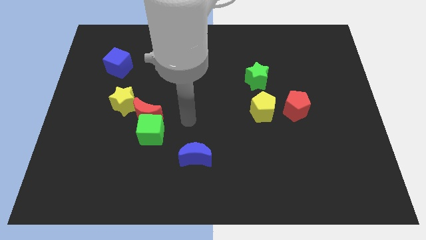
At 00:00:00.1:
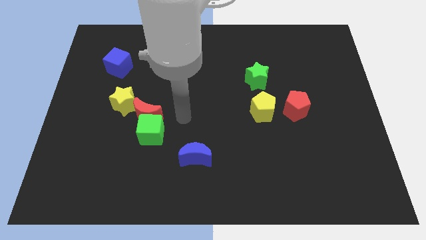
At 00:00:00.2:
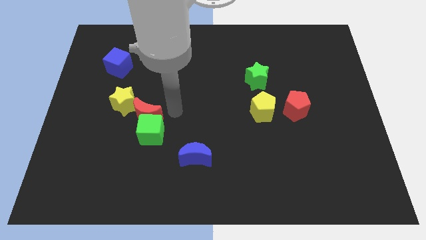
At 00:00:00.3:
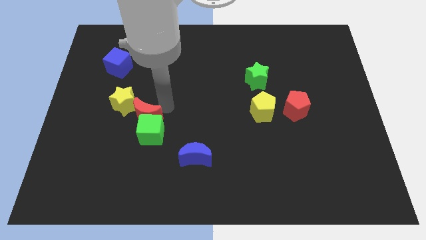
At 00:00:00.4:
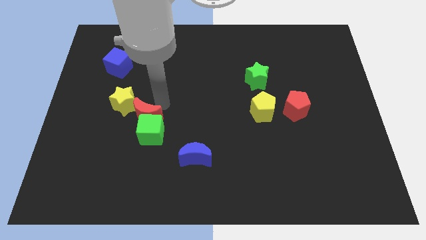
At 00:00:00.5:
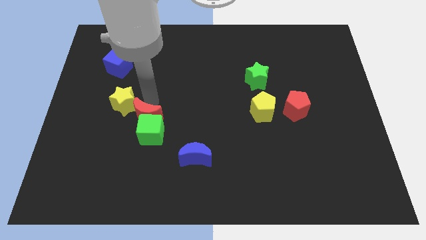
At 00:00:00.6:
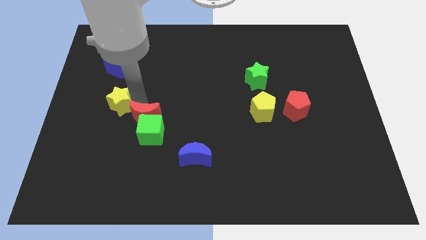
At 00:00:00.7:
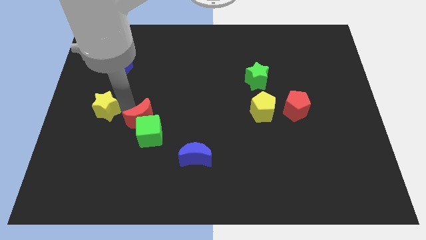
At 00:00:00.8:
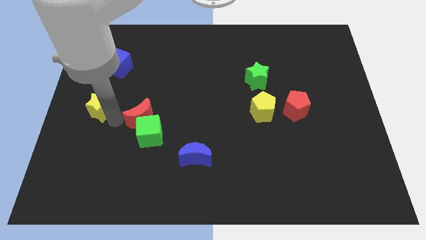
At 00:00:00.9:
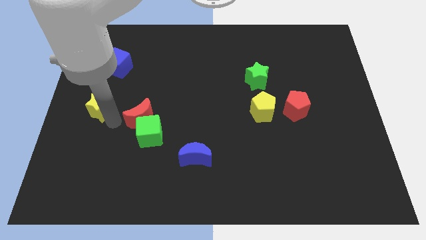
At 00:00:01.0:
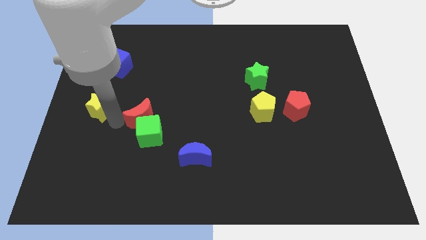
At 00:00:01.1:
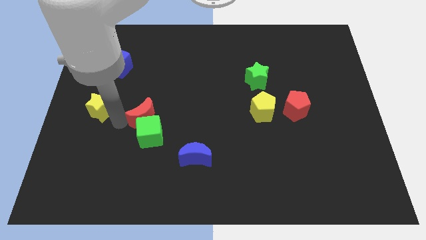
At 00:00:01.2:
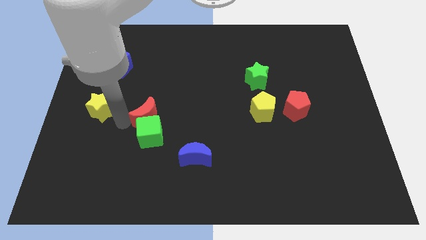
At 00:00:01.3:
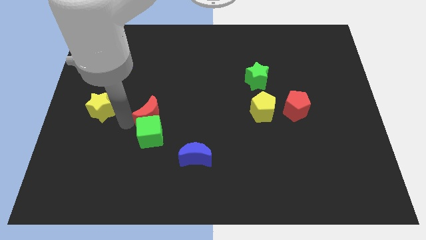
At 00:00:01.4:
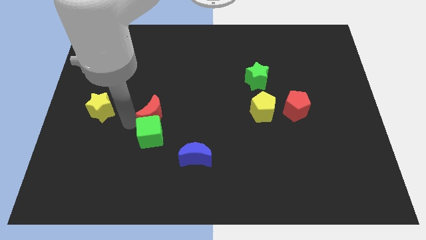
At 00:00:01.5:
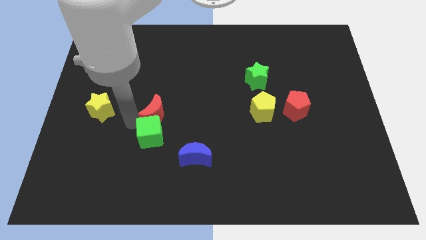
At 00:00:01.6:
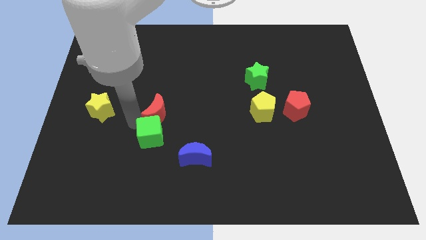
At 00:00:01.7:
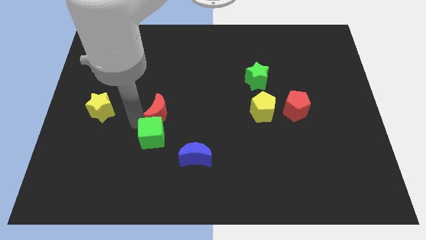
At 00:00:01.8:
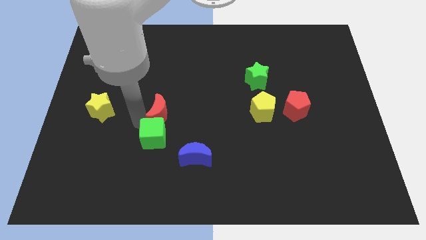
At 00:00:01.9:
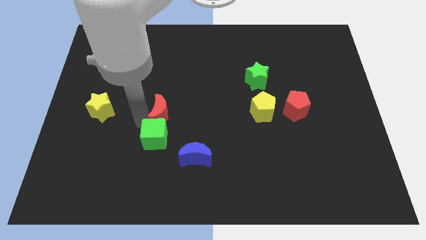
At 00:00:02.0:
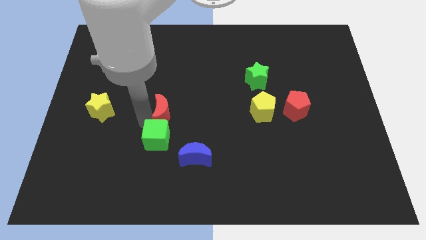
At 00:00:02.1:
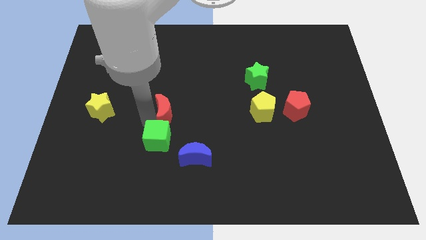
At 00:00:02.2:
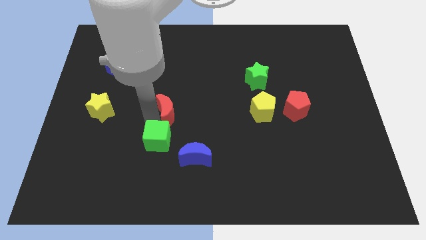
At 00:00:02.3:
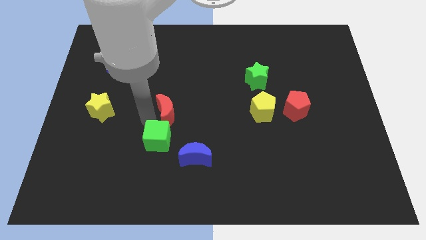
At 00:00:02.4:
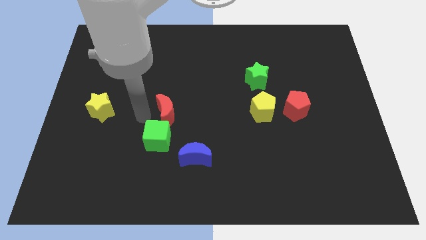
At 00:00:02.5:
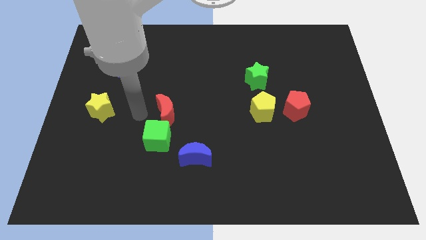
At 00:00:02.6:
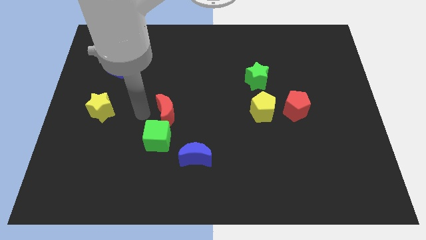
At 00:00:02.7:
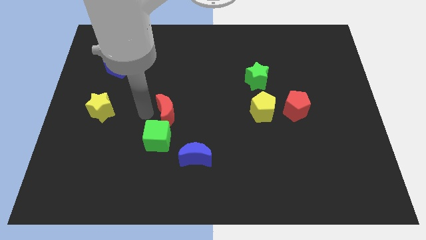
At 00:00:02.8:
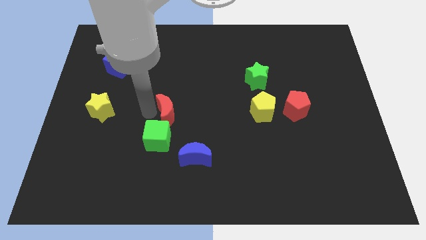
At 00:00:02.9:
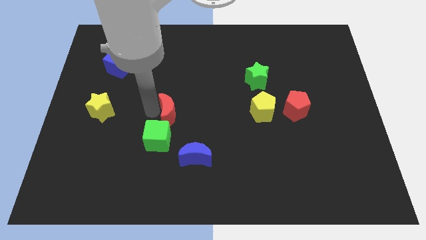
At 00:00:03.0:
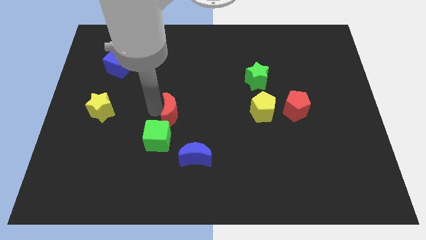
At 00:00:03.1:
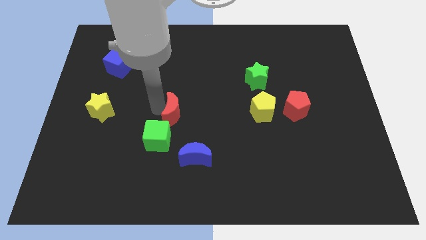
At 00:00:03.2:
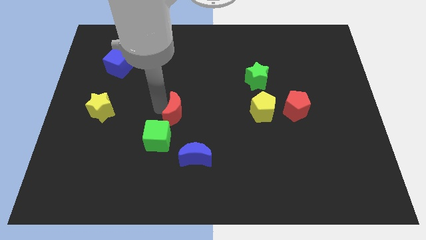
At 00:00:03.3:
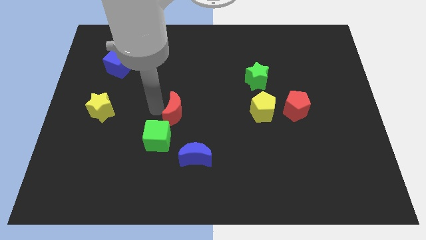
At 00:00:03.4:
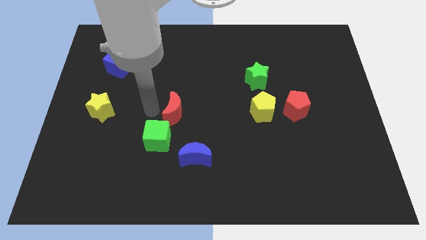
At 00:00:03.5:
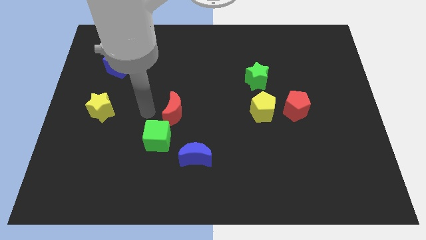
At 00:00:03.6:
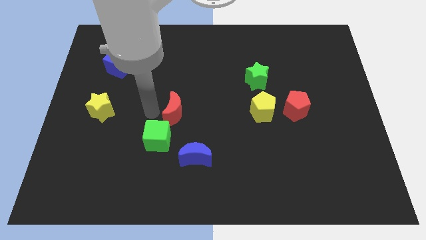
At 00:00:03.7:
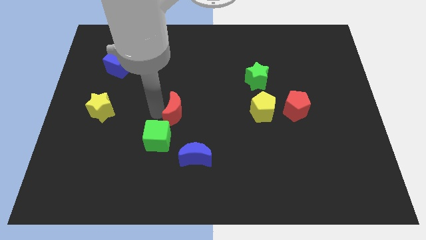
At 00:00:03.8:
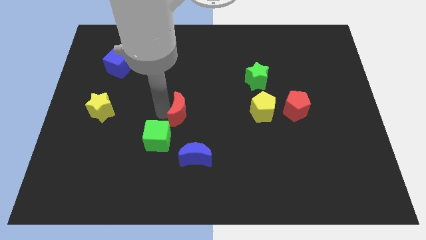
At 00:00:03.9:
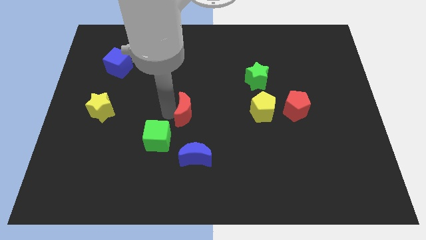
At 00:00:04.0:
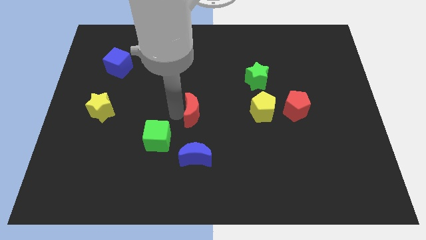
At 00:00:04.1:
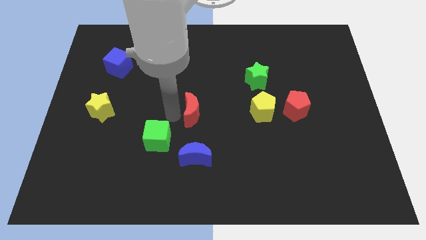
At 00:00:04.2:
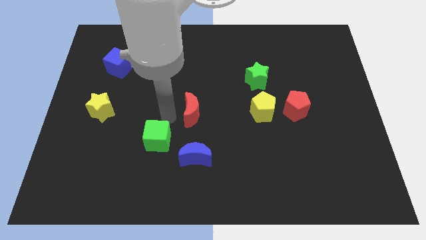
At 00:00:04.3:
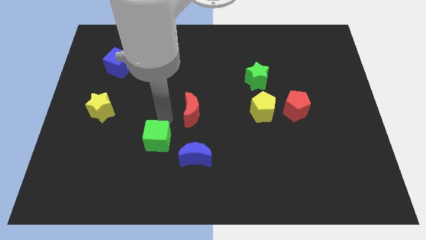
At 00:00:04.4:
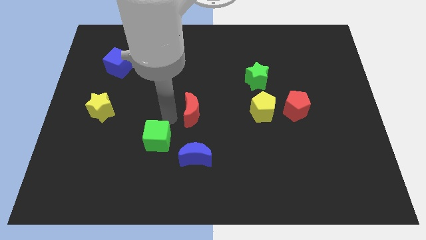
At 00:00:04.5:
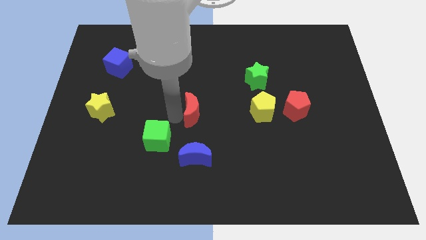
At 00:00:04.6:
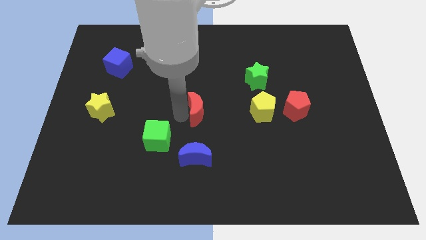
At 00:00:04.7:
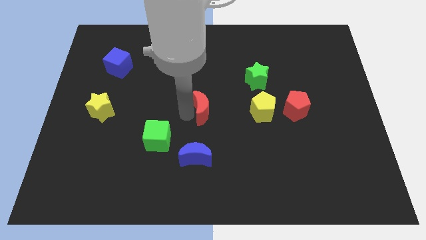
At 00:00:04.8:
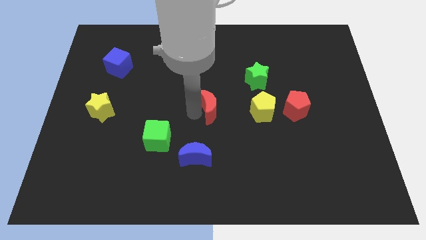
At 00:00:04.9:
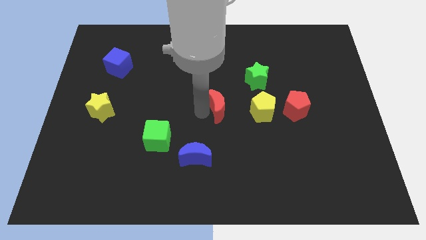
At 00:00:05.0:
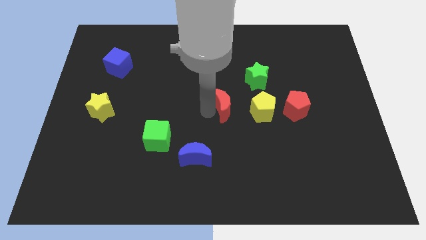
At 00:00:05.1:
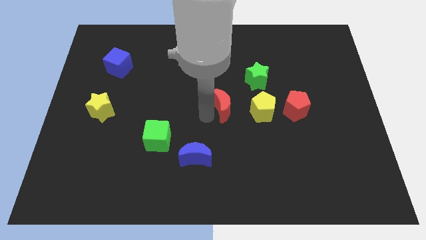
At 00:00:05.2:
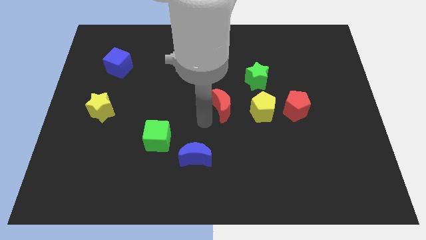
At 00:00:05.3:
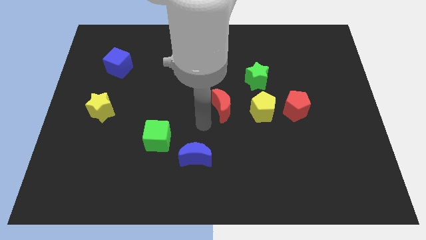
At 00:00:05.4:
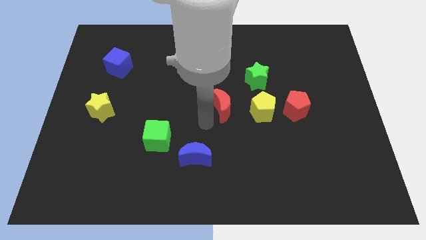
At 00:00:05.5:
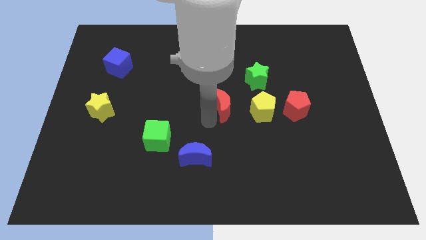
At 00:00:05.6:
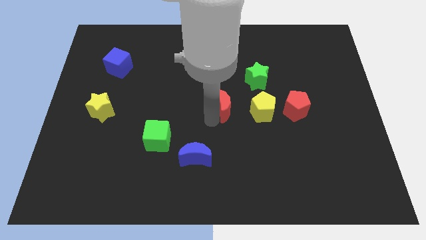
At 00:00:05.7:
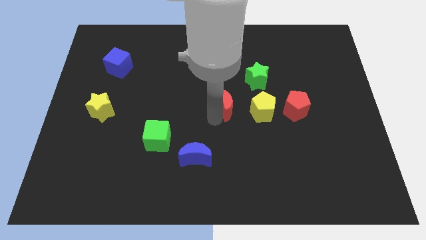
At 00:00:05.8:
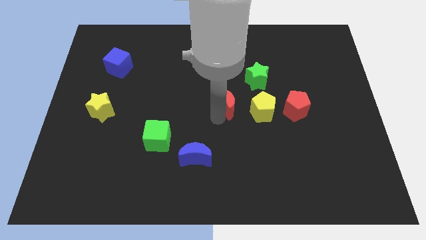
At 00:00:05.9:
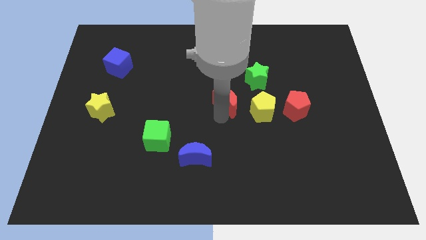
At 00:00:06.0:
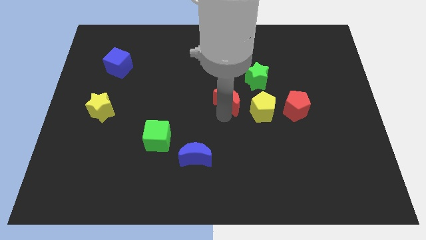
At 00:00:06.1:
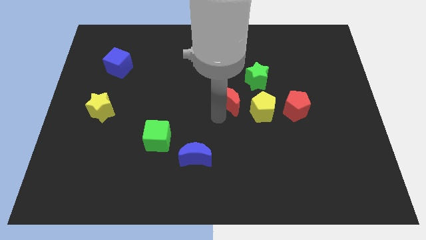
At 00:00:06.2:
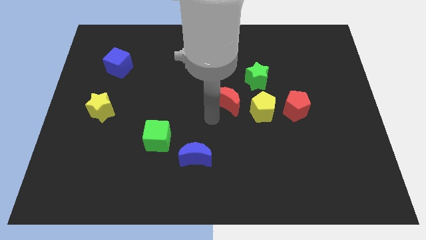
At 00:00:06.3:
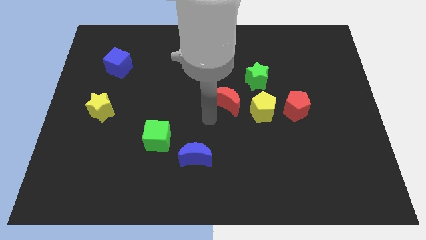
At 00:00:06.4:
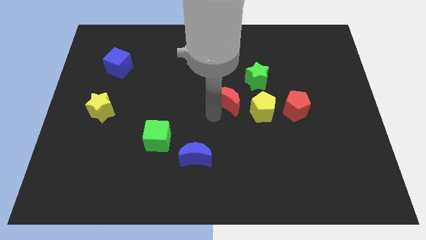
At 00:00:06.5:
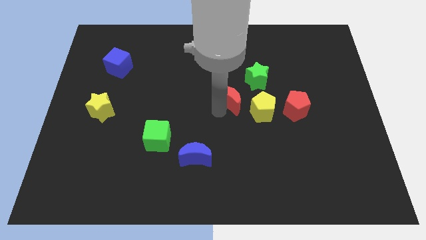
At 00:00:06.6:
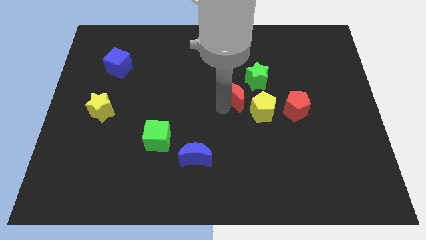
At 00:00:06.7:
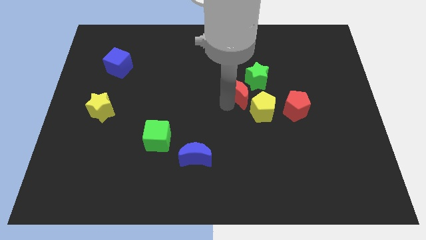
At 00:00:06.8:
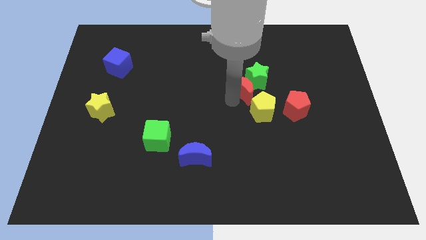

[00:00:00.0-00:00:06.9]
slide the red moon towards the green star
